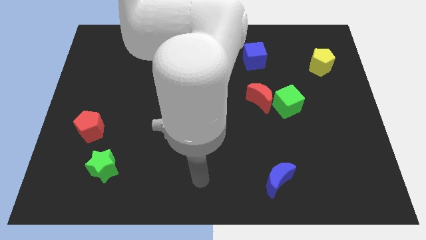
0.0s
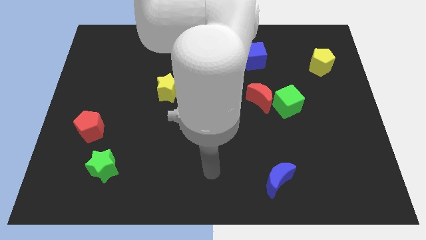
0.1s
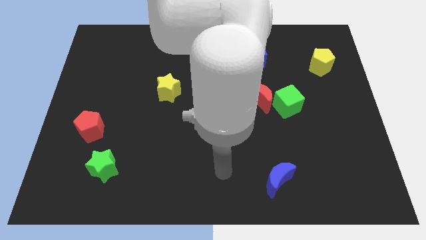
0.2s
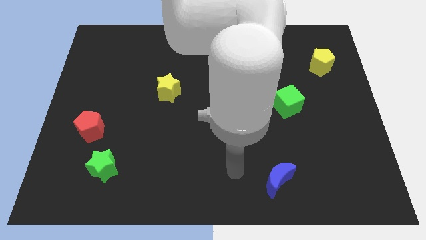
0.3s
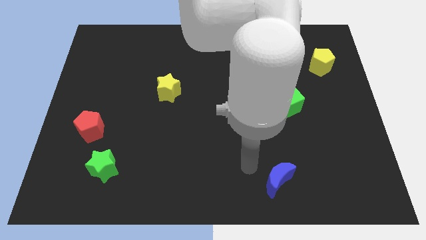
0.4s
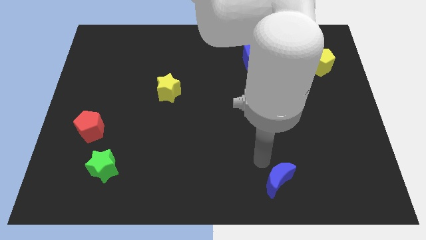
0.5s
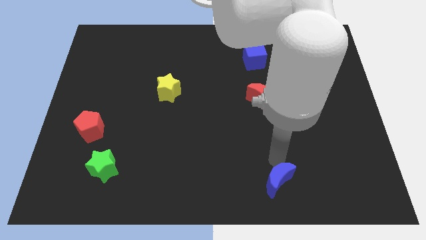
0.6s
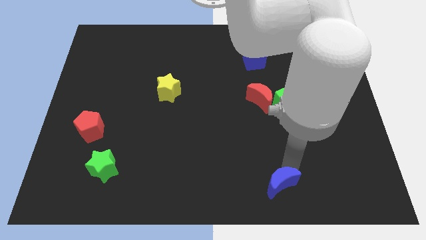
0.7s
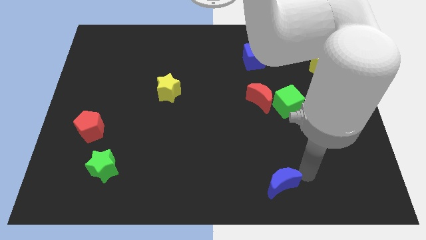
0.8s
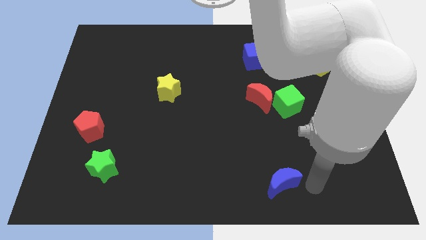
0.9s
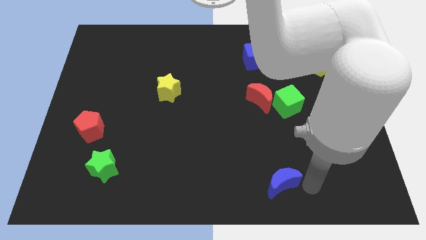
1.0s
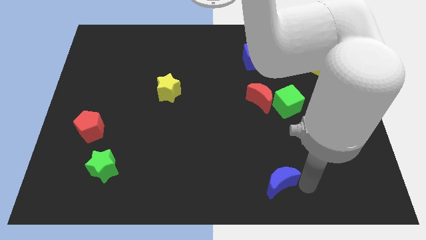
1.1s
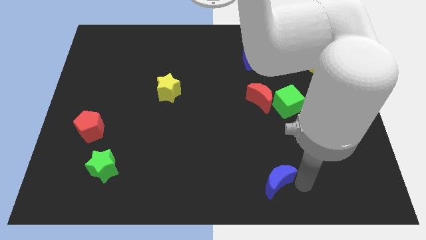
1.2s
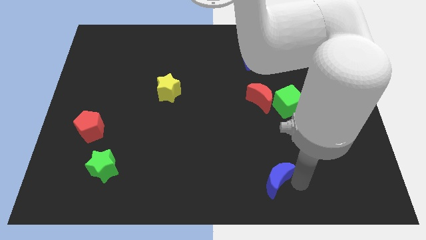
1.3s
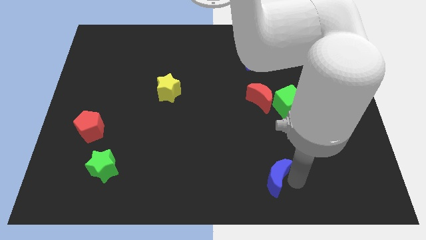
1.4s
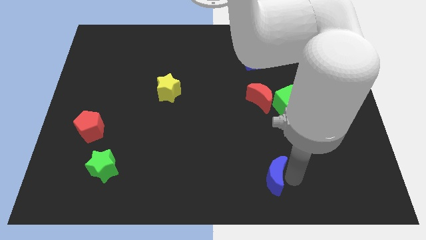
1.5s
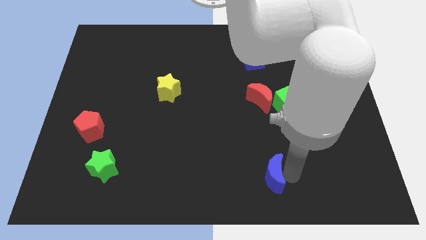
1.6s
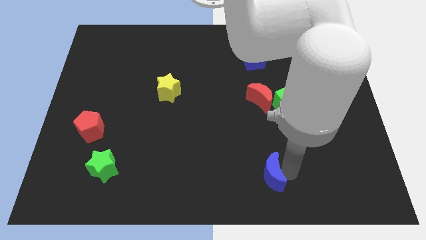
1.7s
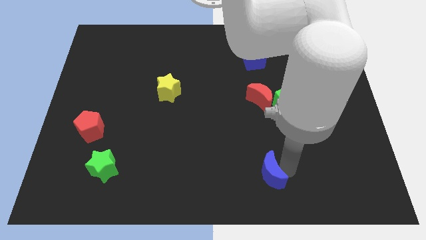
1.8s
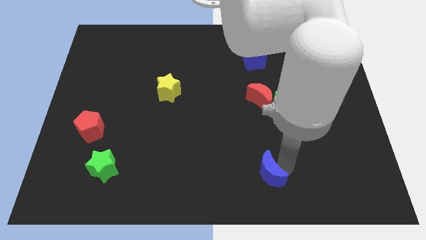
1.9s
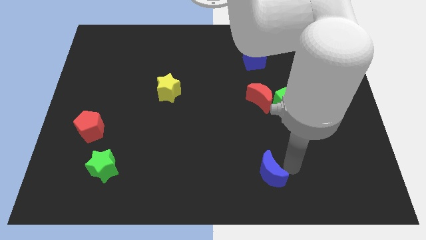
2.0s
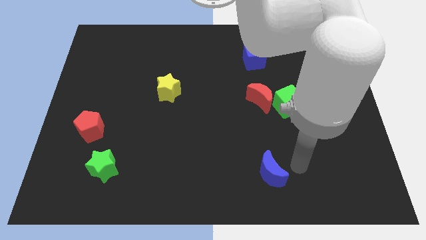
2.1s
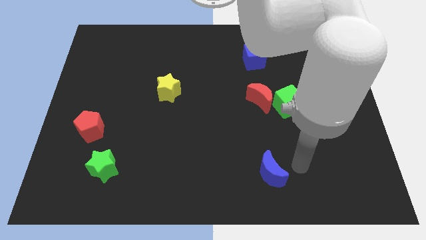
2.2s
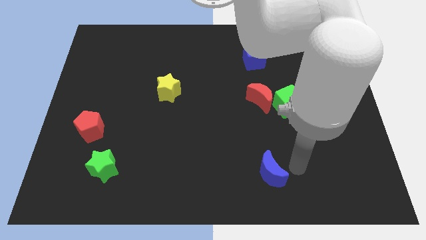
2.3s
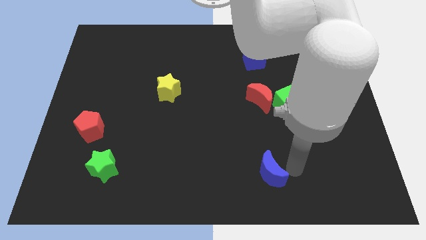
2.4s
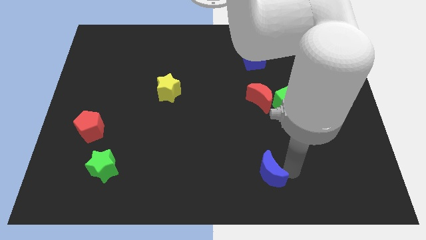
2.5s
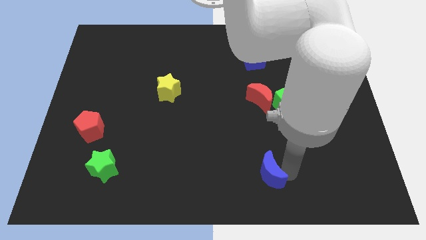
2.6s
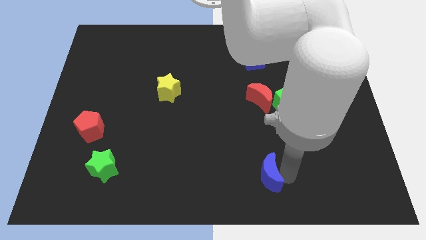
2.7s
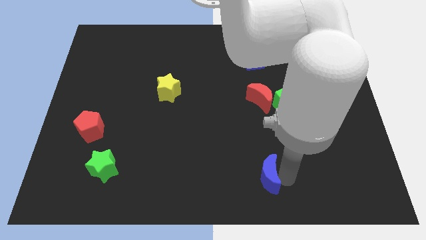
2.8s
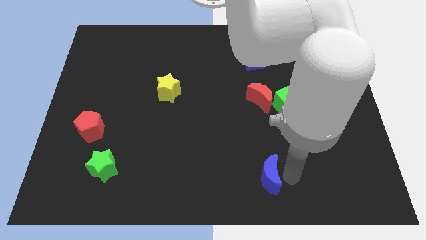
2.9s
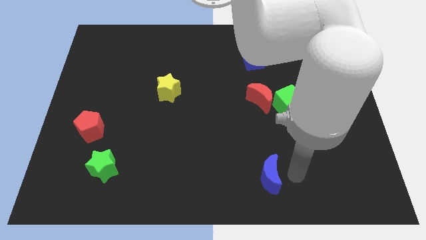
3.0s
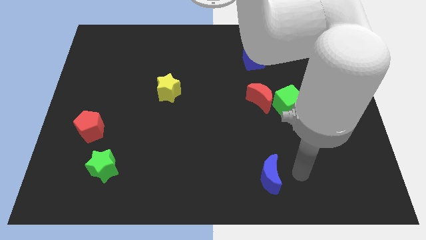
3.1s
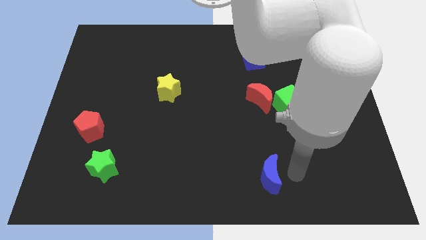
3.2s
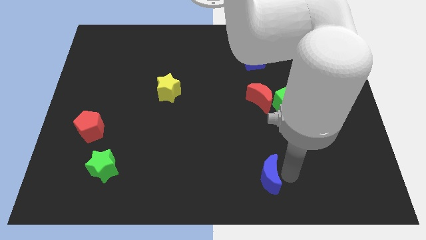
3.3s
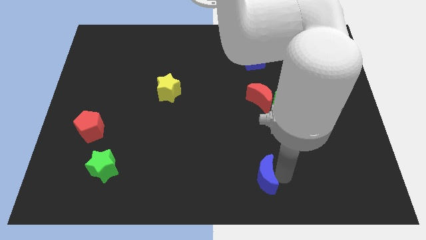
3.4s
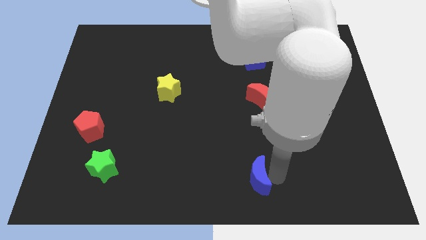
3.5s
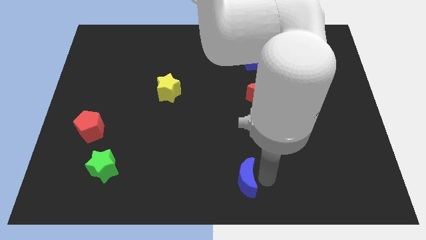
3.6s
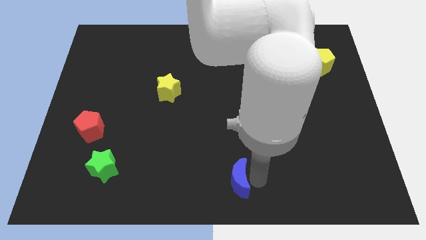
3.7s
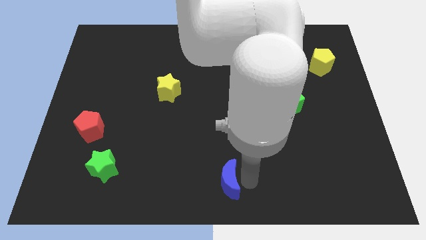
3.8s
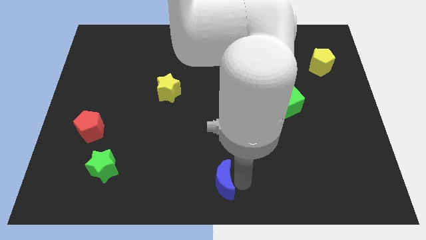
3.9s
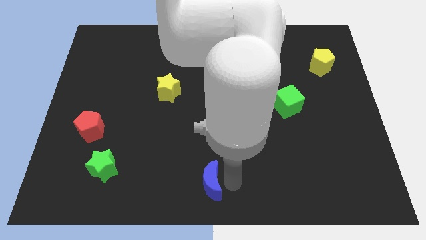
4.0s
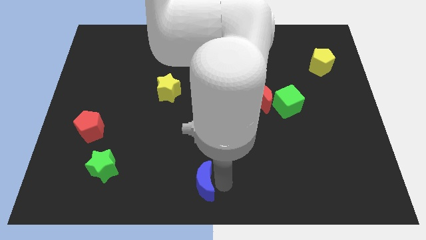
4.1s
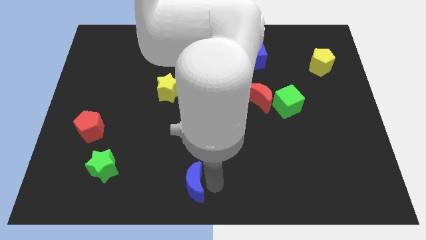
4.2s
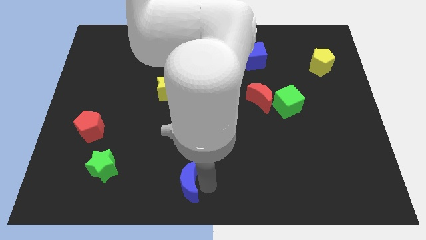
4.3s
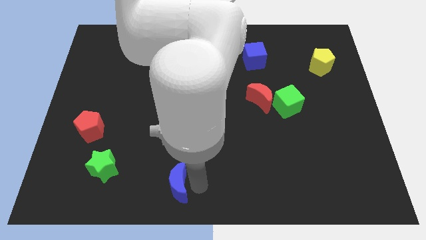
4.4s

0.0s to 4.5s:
move the blue moon left

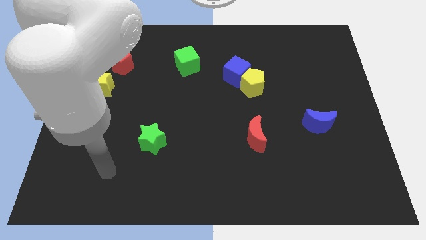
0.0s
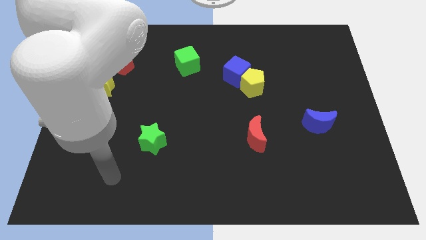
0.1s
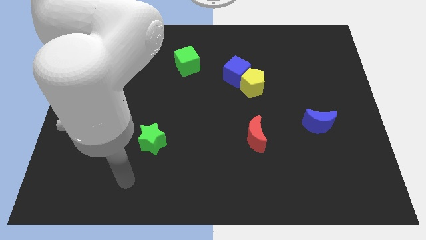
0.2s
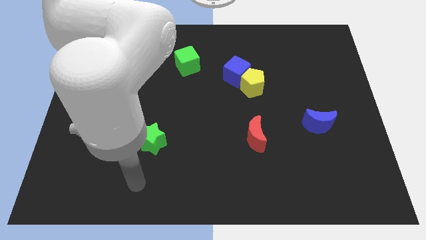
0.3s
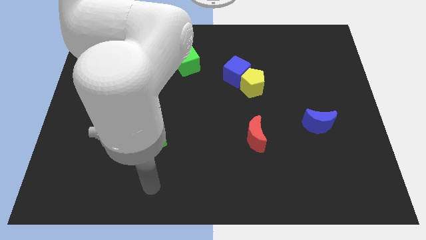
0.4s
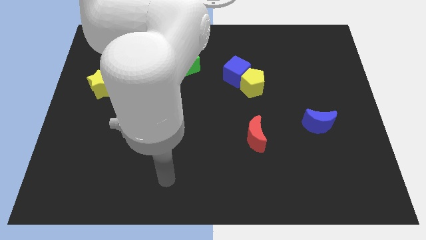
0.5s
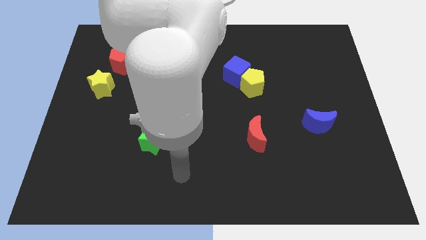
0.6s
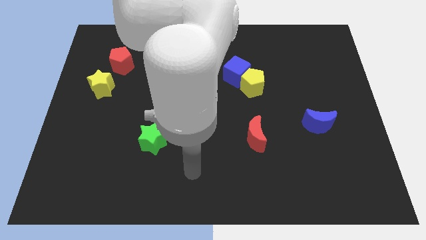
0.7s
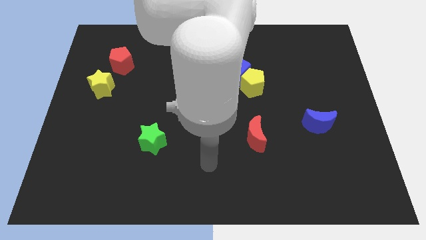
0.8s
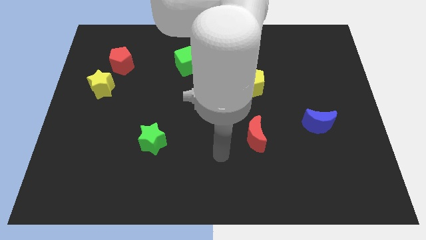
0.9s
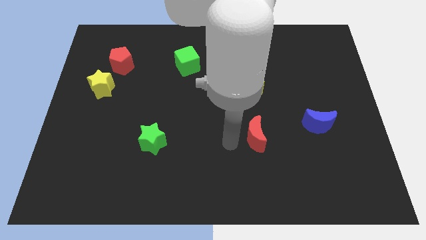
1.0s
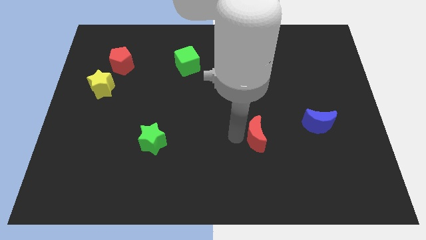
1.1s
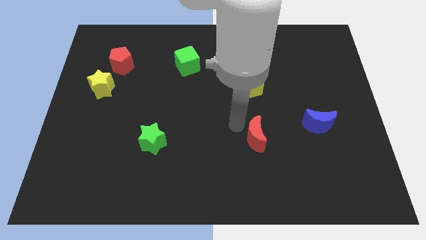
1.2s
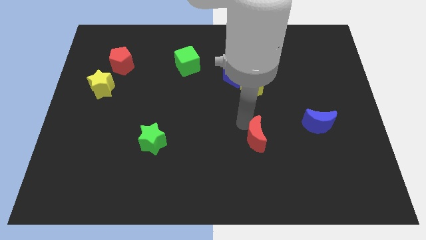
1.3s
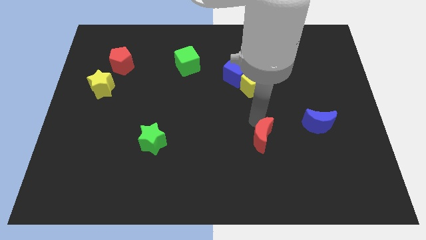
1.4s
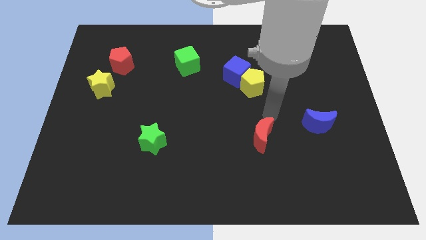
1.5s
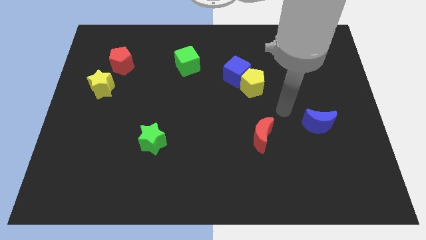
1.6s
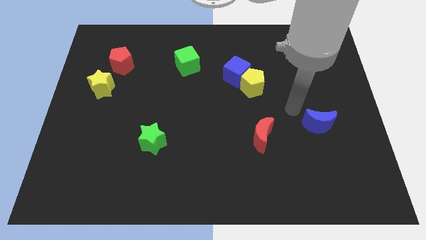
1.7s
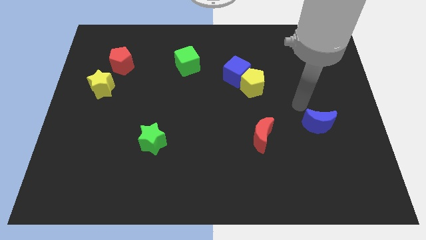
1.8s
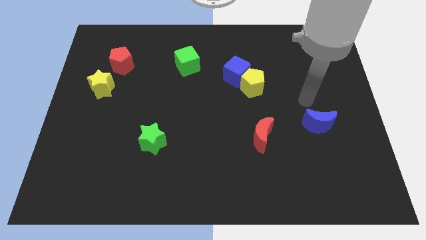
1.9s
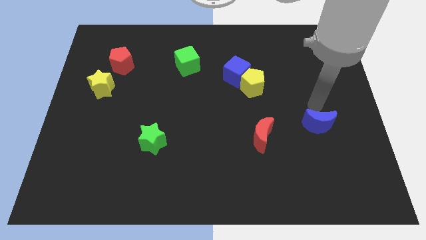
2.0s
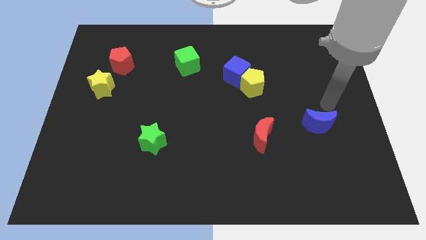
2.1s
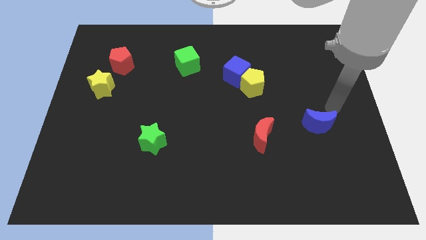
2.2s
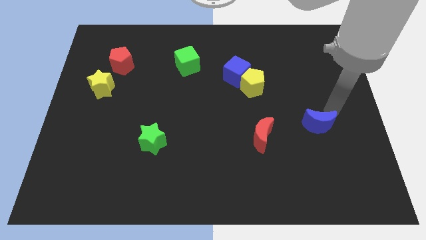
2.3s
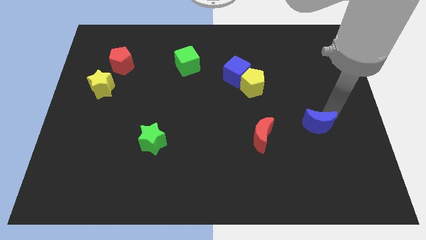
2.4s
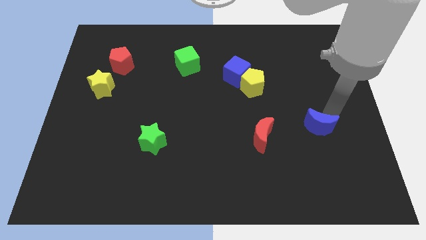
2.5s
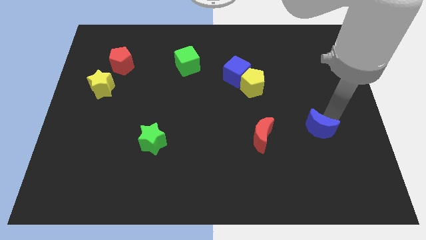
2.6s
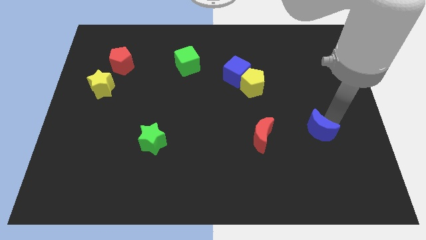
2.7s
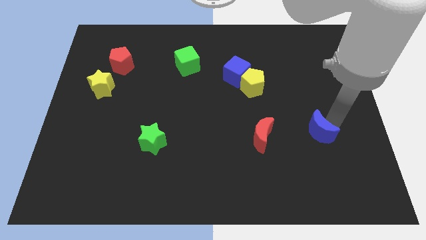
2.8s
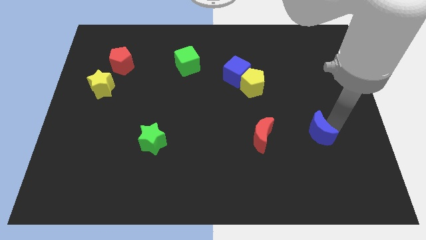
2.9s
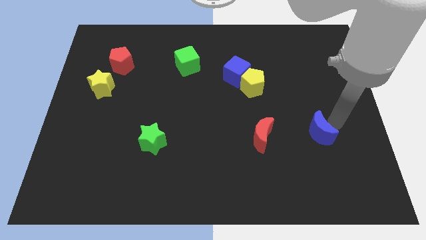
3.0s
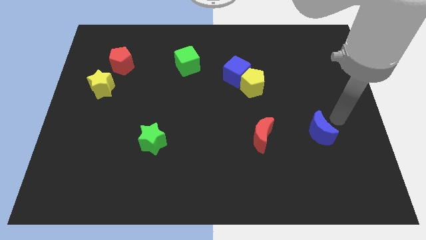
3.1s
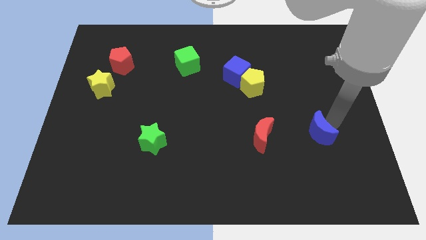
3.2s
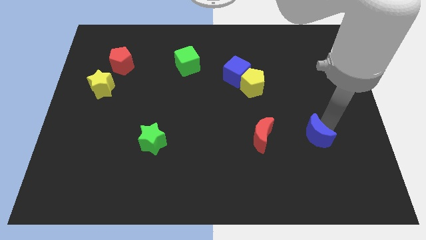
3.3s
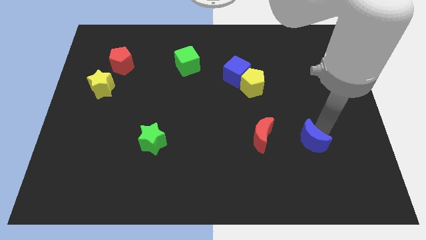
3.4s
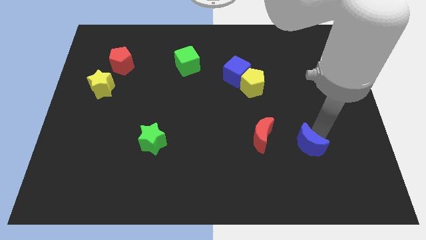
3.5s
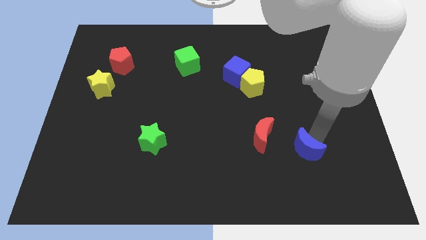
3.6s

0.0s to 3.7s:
slide the blue moon down and left a little

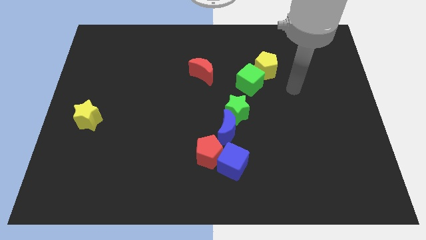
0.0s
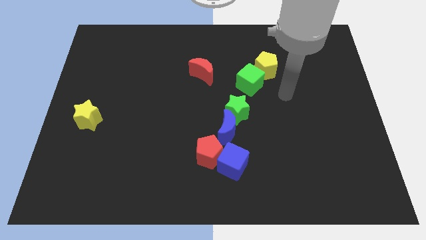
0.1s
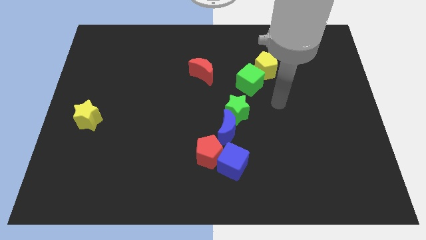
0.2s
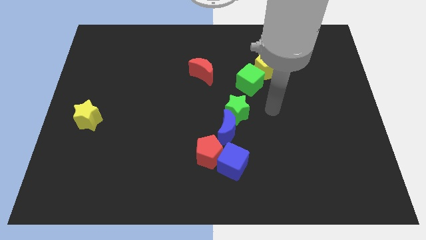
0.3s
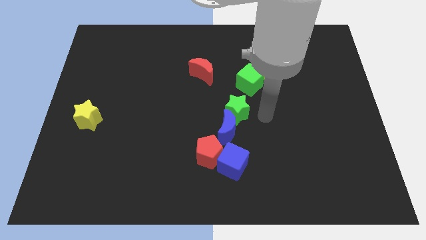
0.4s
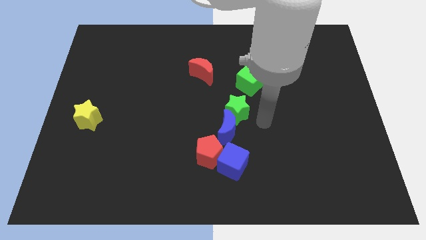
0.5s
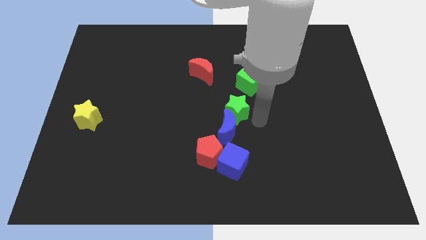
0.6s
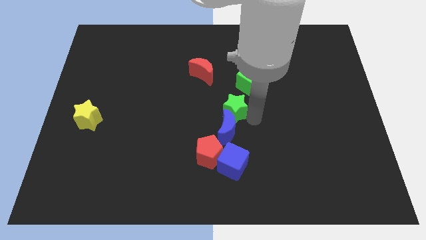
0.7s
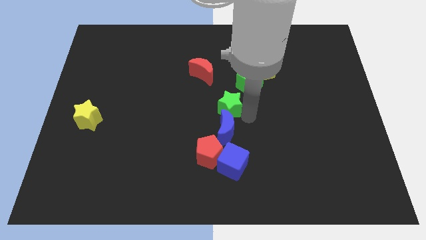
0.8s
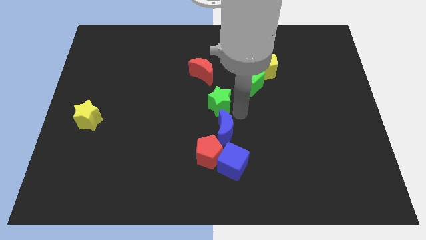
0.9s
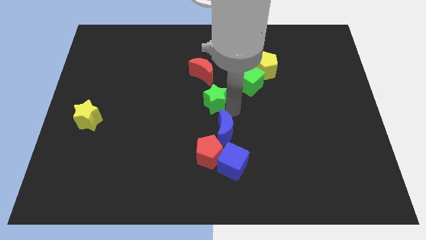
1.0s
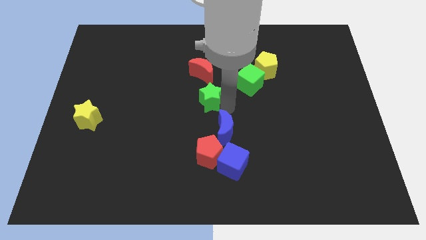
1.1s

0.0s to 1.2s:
move the green star upwards and left a little
